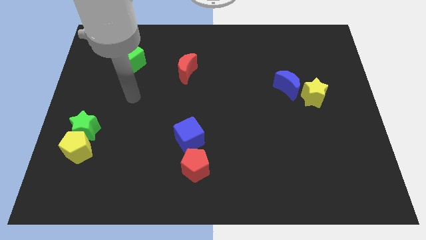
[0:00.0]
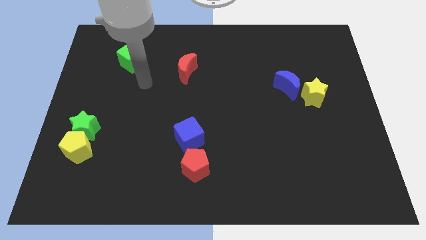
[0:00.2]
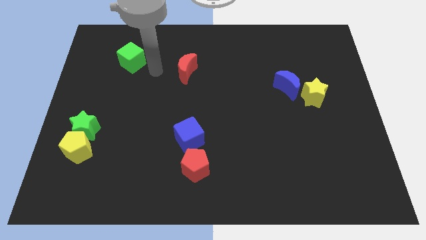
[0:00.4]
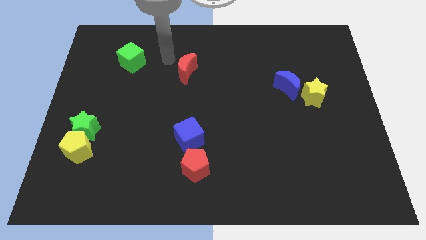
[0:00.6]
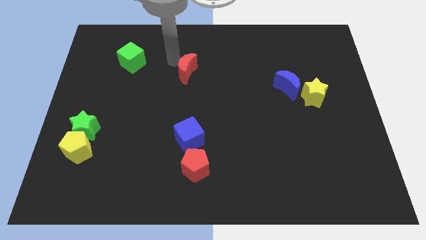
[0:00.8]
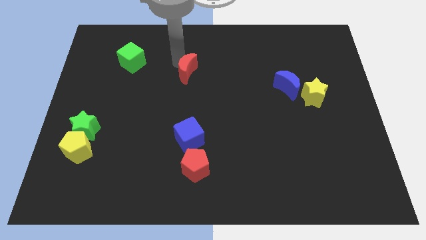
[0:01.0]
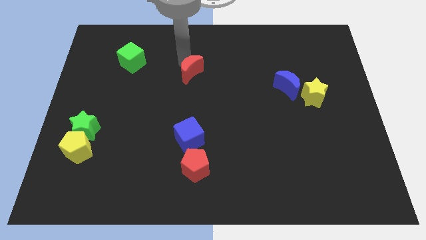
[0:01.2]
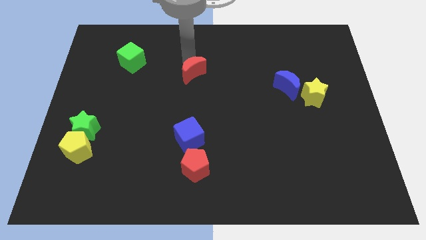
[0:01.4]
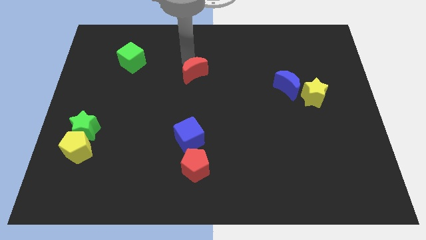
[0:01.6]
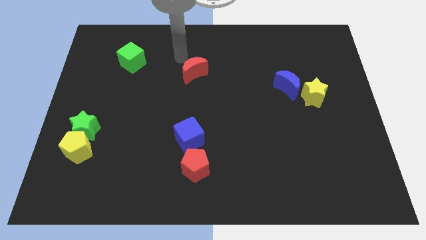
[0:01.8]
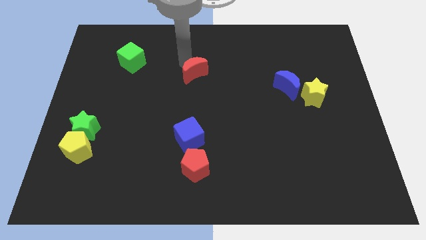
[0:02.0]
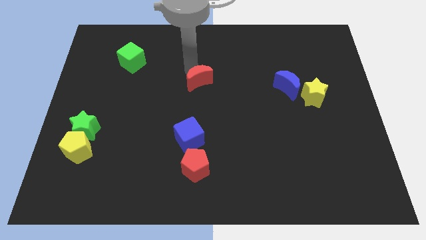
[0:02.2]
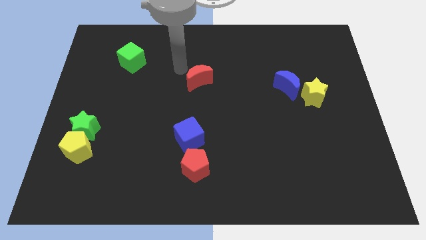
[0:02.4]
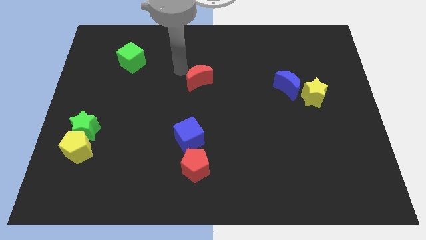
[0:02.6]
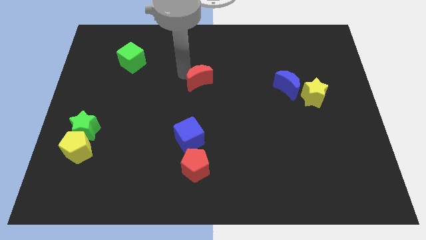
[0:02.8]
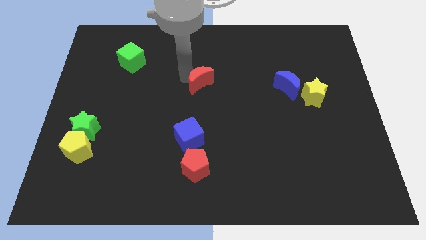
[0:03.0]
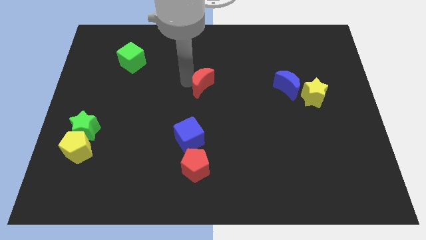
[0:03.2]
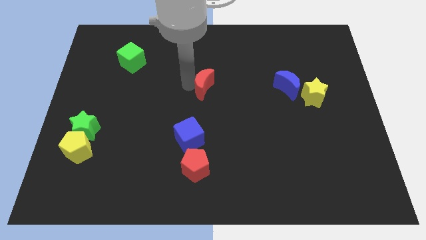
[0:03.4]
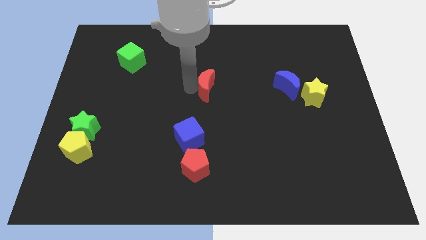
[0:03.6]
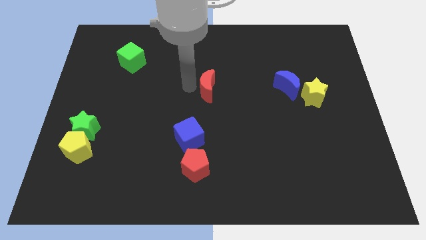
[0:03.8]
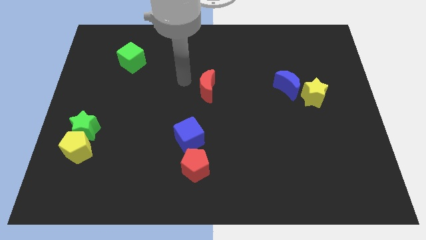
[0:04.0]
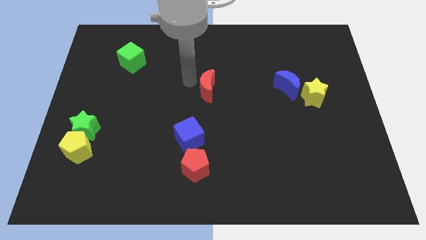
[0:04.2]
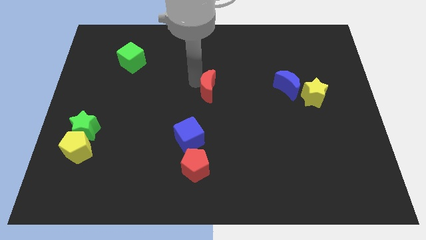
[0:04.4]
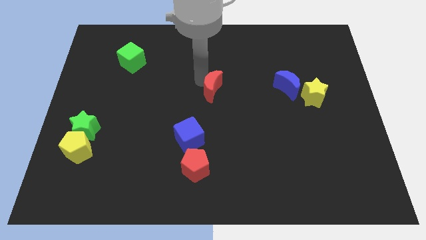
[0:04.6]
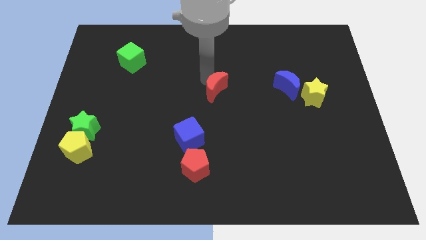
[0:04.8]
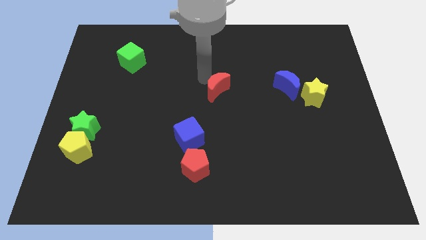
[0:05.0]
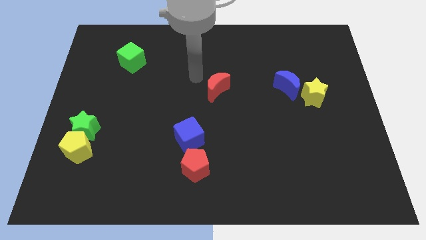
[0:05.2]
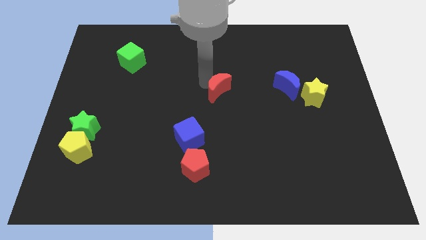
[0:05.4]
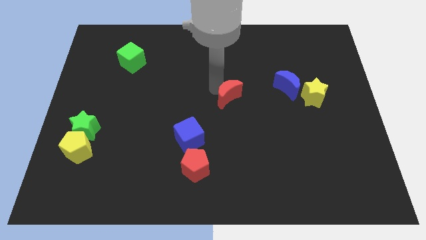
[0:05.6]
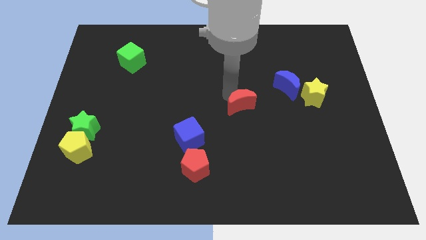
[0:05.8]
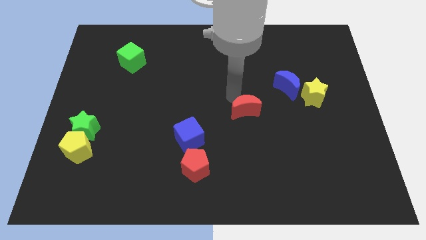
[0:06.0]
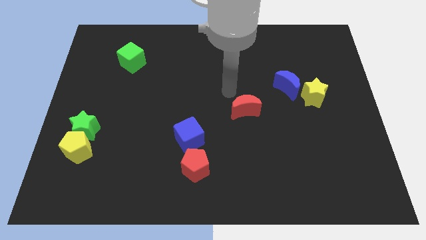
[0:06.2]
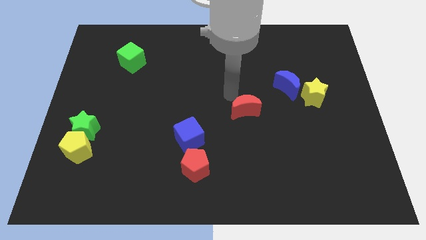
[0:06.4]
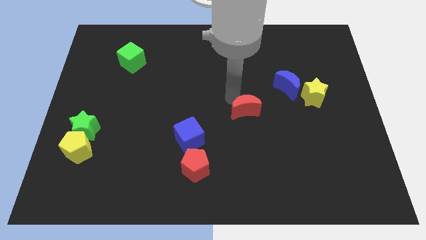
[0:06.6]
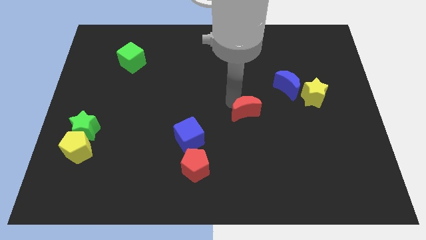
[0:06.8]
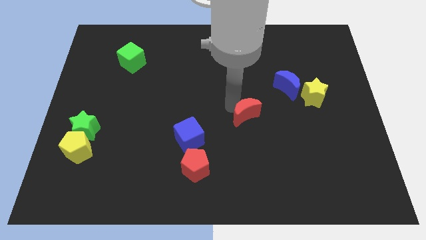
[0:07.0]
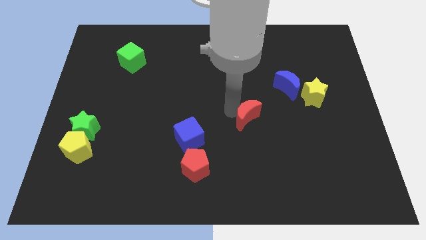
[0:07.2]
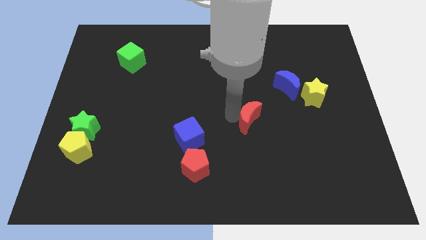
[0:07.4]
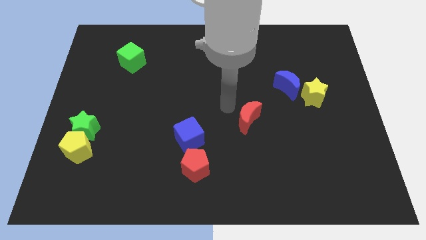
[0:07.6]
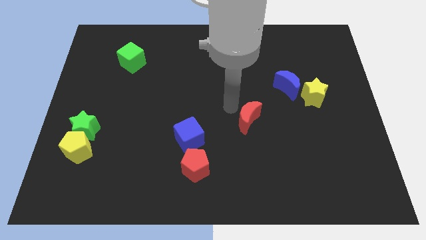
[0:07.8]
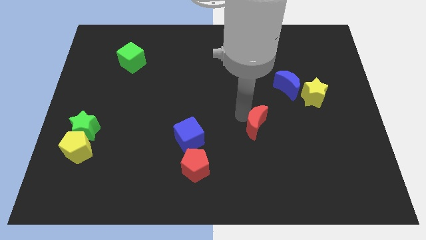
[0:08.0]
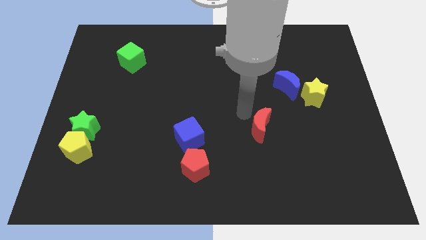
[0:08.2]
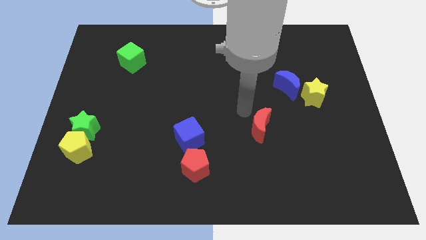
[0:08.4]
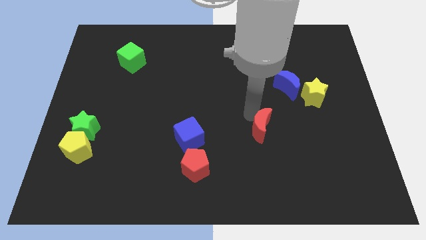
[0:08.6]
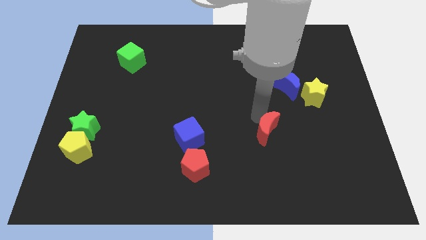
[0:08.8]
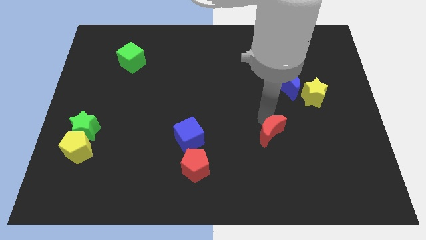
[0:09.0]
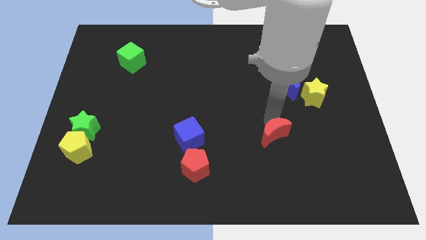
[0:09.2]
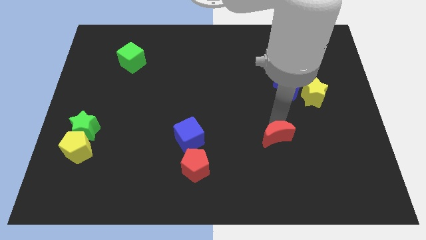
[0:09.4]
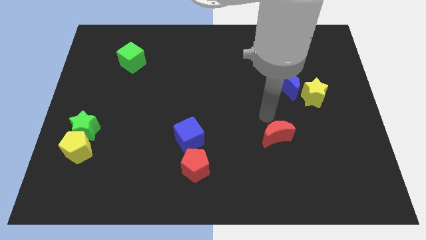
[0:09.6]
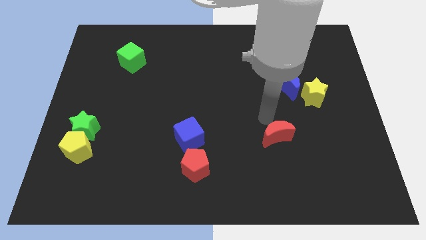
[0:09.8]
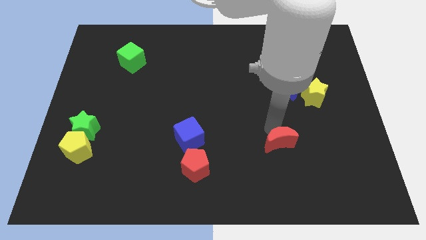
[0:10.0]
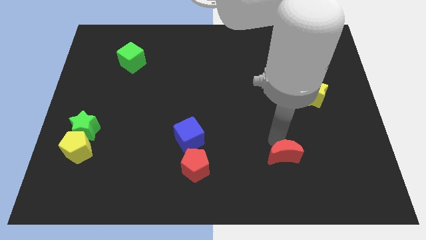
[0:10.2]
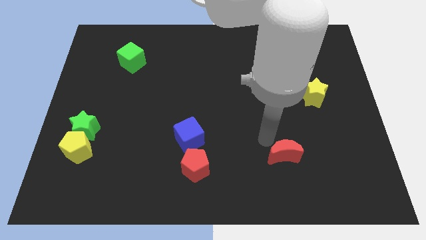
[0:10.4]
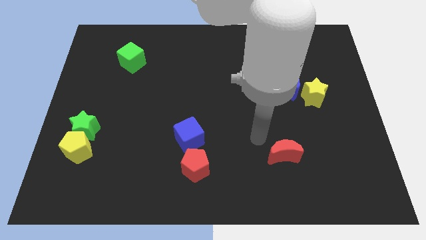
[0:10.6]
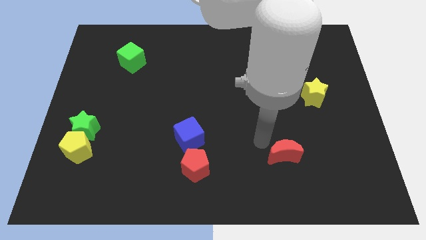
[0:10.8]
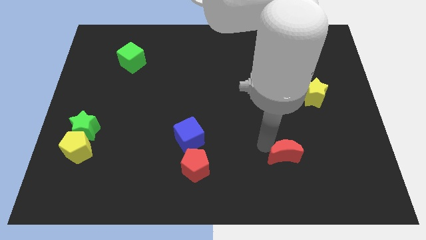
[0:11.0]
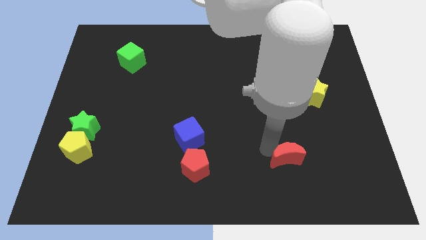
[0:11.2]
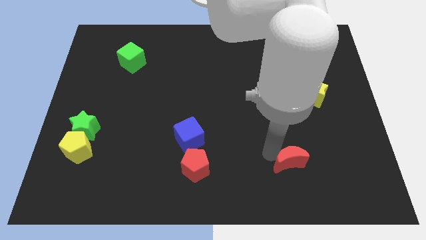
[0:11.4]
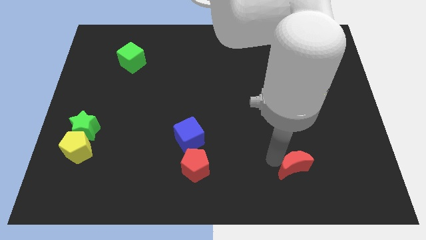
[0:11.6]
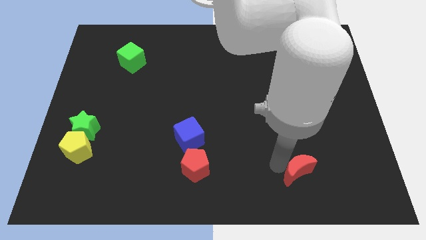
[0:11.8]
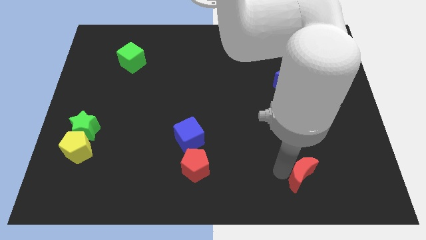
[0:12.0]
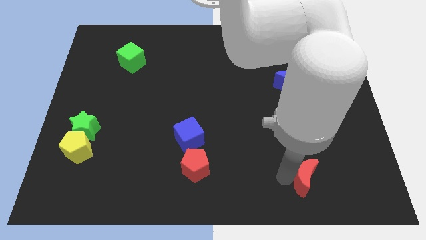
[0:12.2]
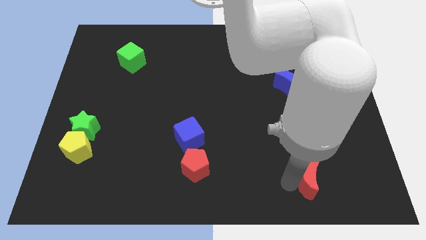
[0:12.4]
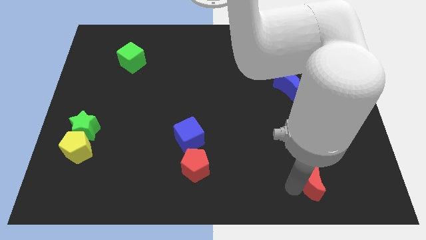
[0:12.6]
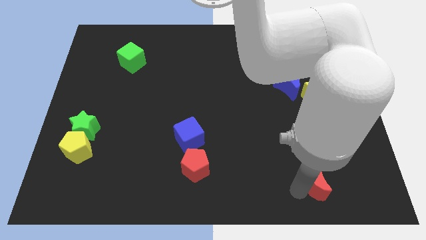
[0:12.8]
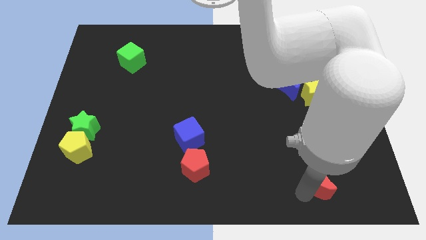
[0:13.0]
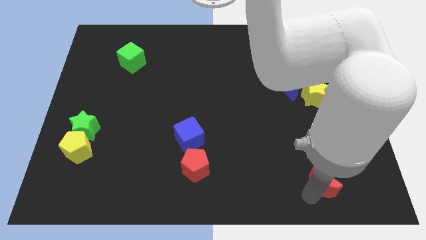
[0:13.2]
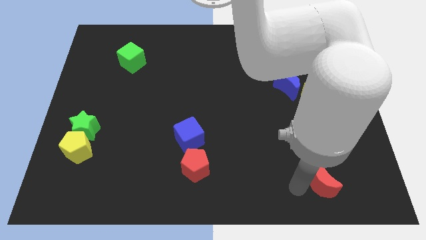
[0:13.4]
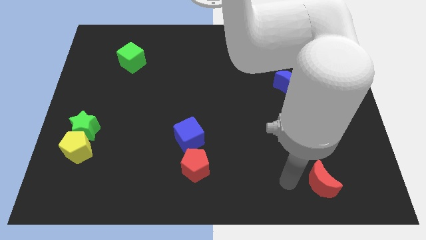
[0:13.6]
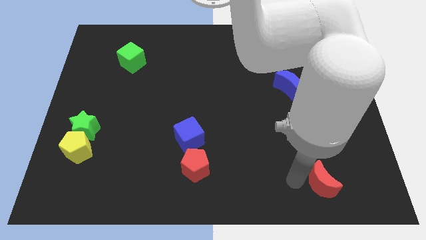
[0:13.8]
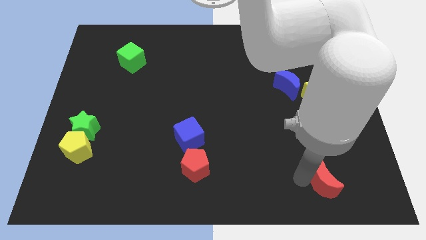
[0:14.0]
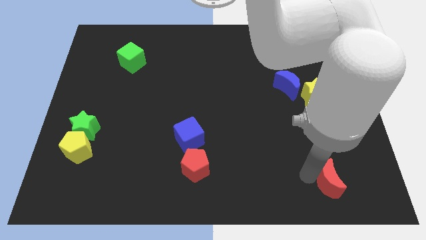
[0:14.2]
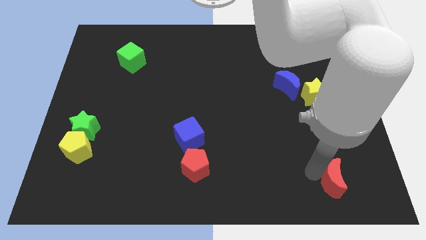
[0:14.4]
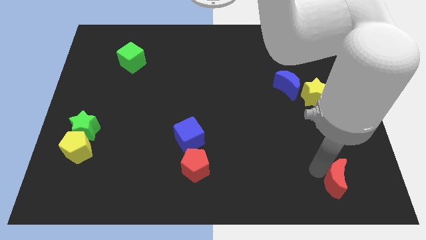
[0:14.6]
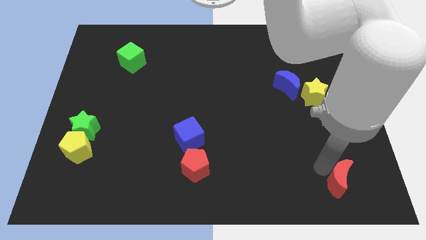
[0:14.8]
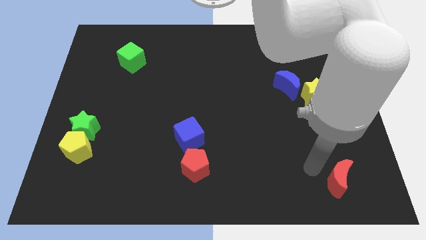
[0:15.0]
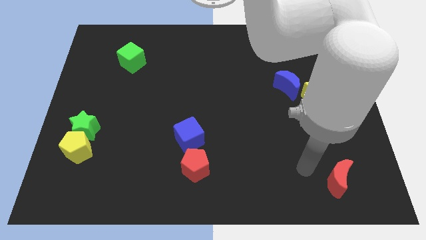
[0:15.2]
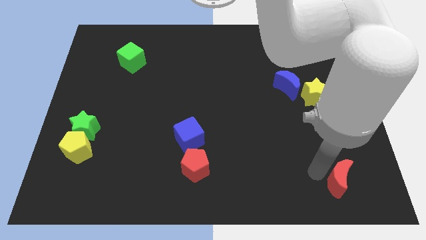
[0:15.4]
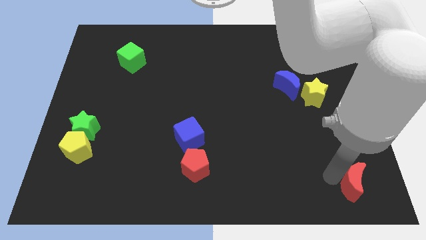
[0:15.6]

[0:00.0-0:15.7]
slide the red moon to the bottom right
